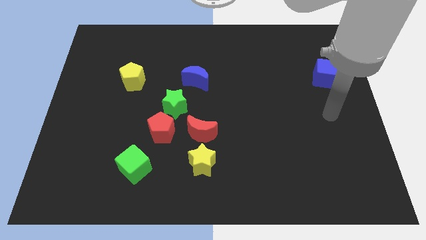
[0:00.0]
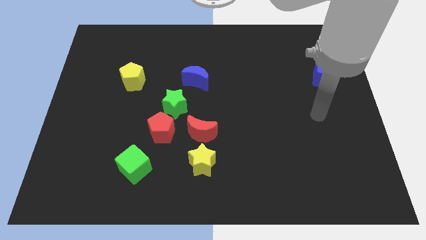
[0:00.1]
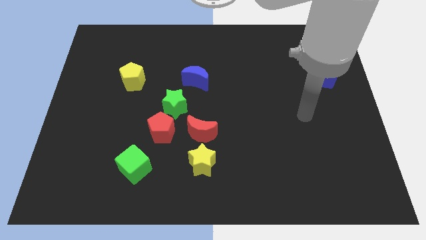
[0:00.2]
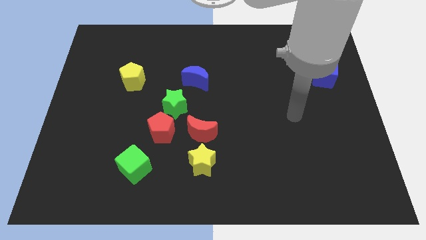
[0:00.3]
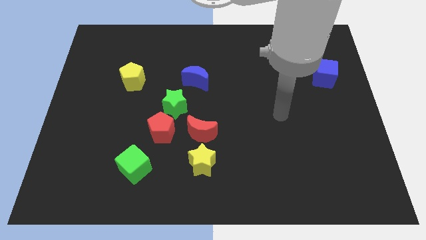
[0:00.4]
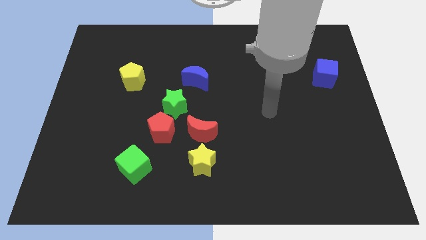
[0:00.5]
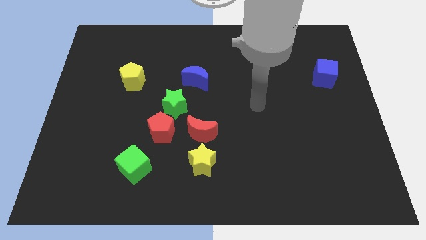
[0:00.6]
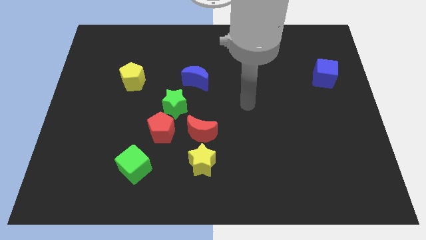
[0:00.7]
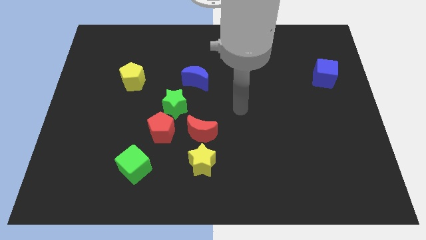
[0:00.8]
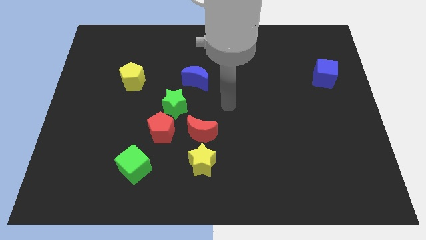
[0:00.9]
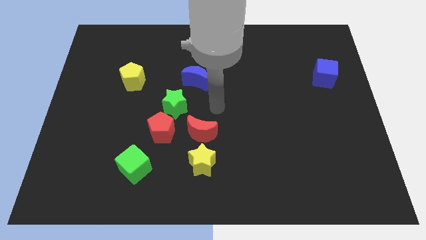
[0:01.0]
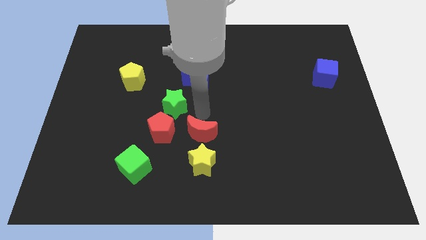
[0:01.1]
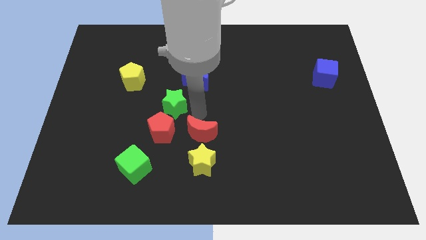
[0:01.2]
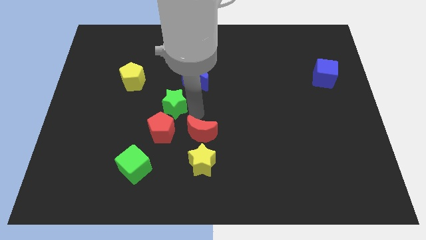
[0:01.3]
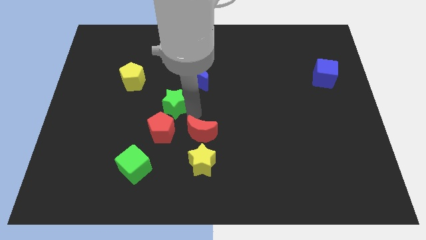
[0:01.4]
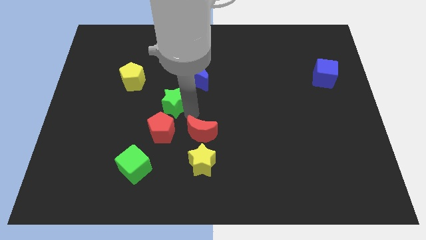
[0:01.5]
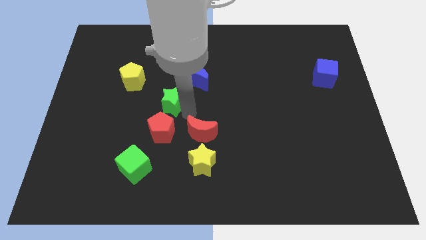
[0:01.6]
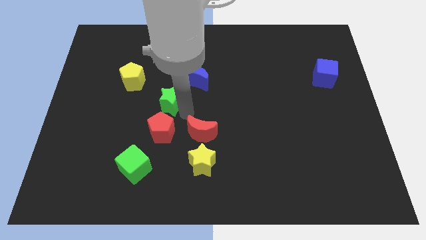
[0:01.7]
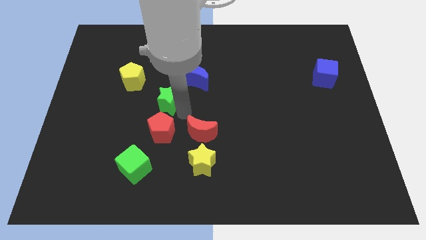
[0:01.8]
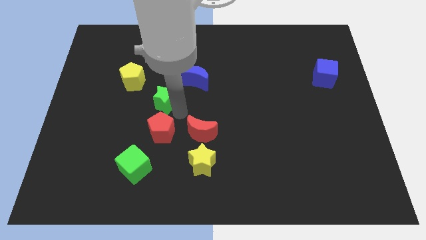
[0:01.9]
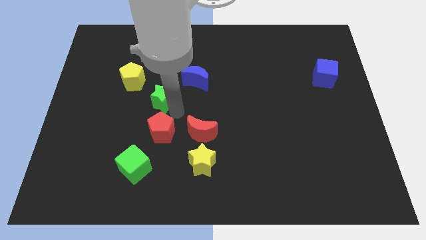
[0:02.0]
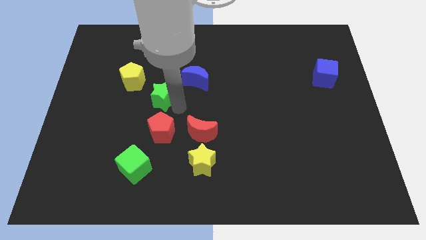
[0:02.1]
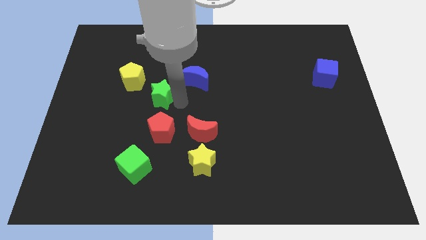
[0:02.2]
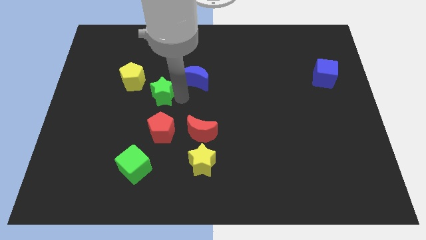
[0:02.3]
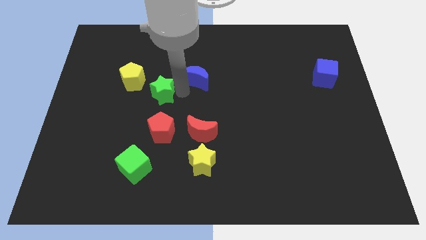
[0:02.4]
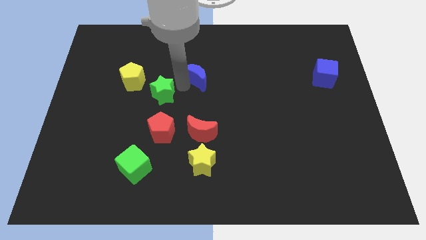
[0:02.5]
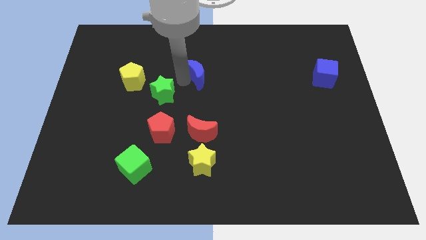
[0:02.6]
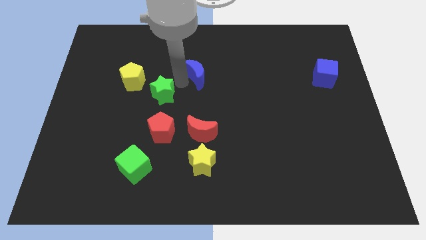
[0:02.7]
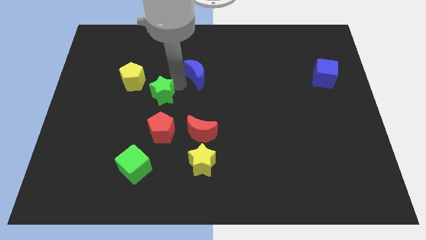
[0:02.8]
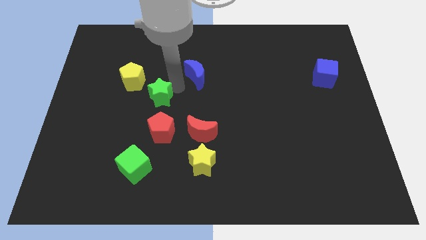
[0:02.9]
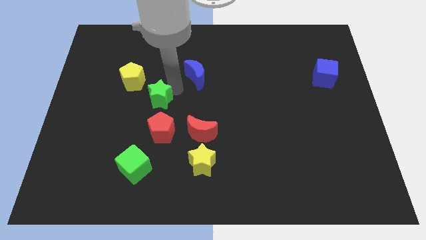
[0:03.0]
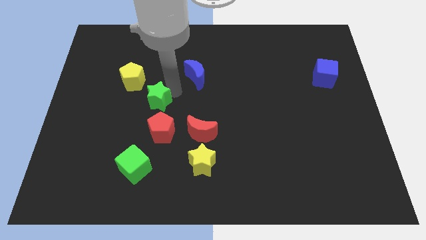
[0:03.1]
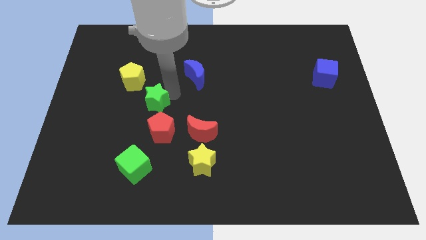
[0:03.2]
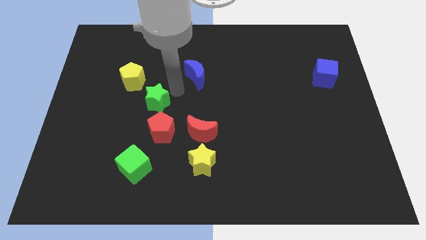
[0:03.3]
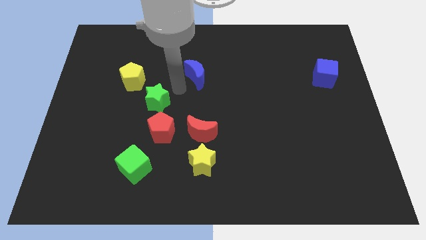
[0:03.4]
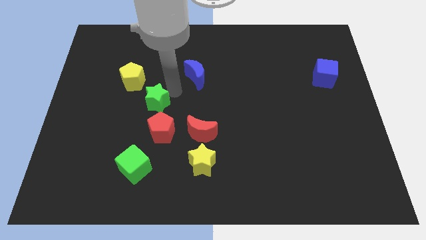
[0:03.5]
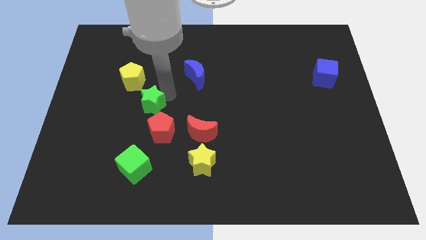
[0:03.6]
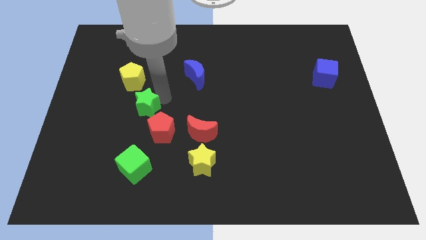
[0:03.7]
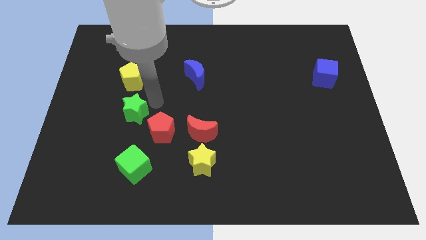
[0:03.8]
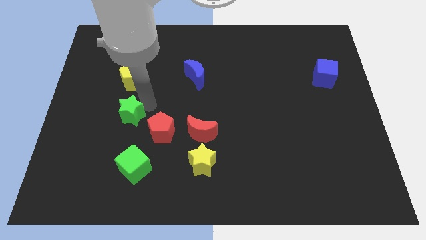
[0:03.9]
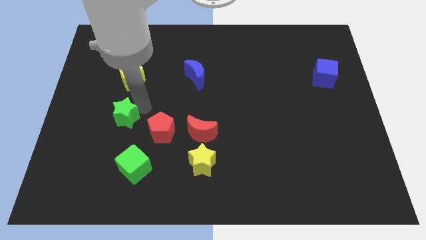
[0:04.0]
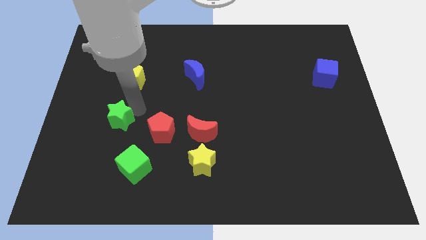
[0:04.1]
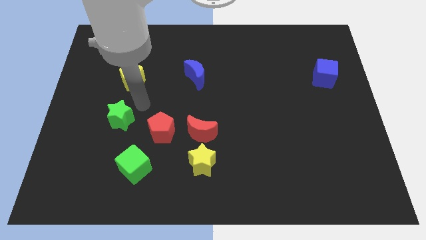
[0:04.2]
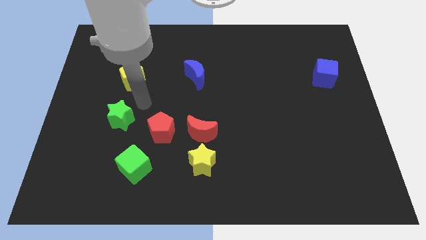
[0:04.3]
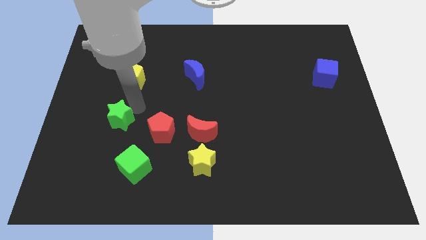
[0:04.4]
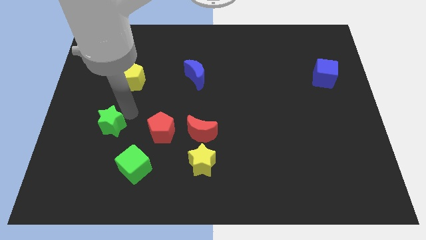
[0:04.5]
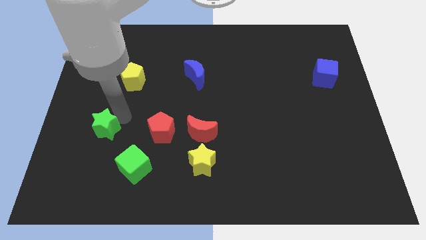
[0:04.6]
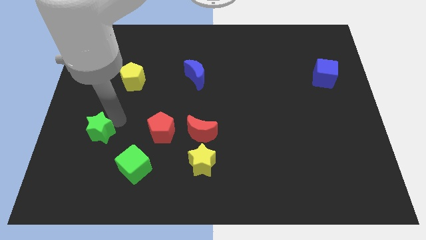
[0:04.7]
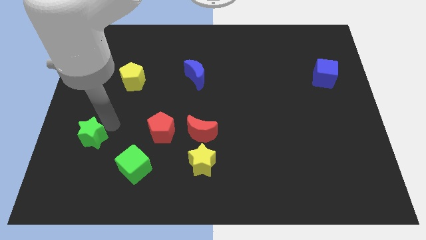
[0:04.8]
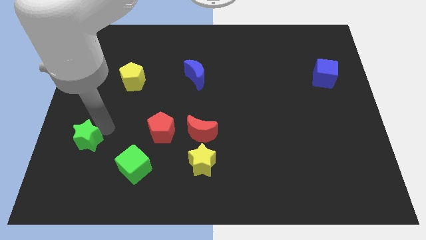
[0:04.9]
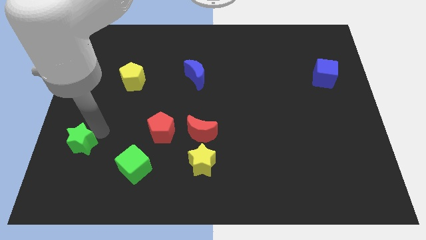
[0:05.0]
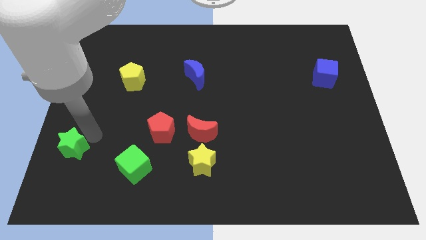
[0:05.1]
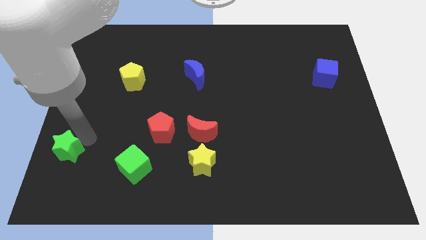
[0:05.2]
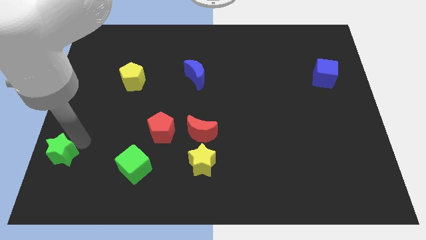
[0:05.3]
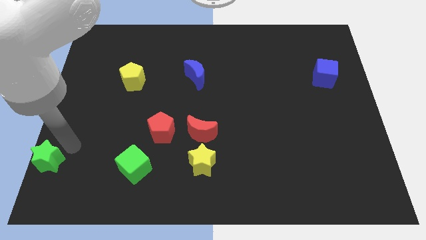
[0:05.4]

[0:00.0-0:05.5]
slide the green star to the lower left corner

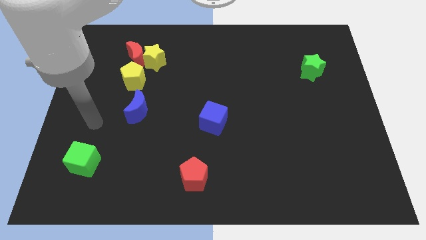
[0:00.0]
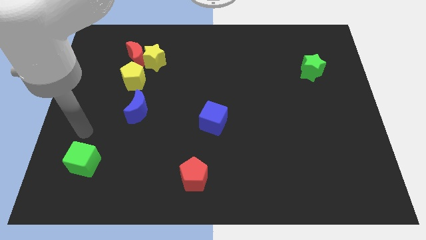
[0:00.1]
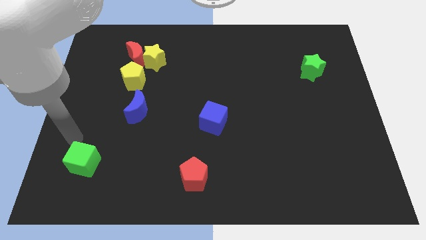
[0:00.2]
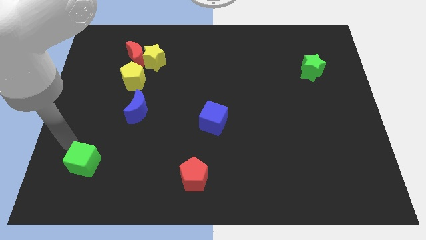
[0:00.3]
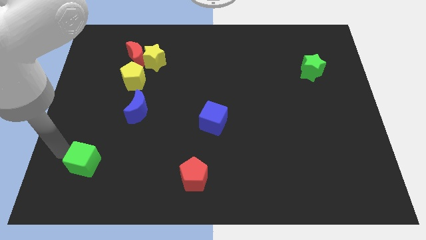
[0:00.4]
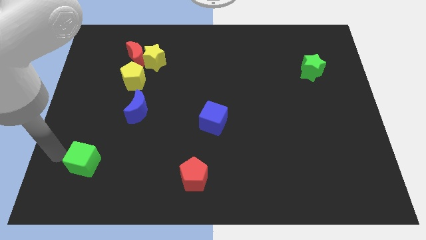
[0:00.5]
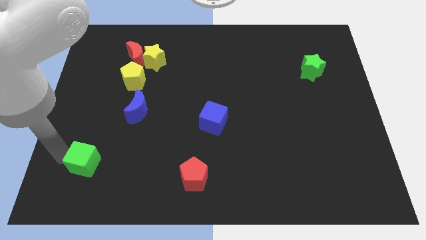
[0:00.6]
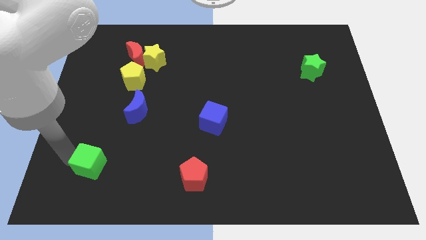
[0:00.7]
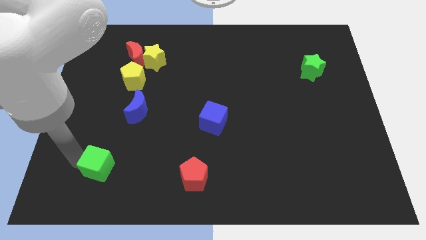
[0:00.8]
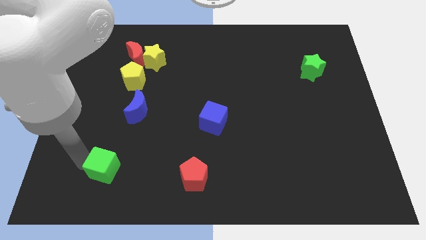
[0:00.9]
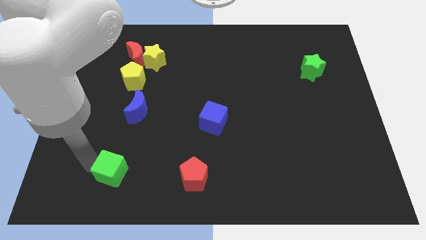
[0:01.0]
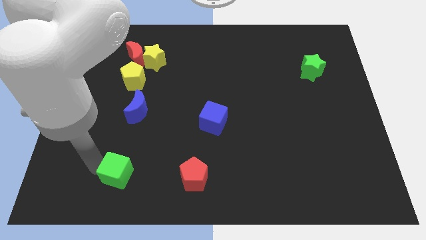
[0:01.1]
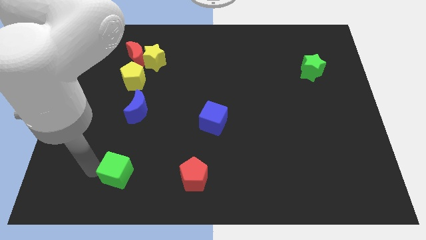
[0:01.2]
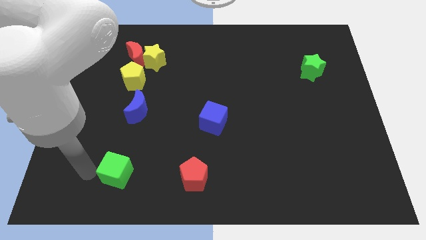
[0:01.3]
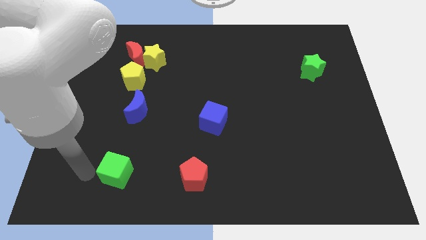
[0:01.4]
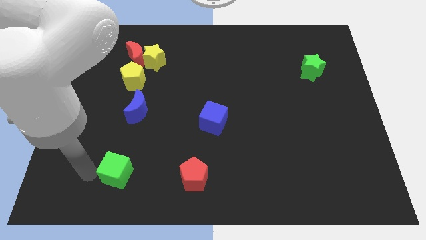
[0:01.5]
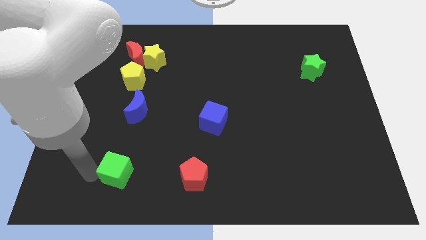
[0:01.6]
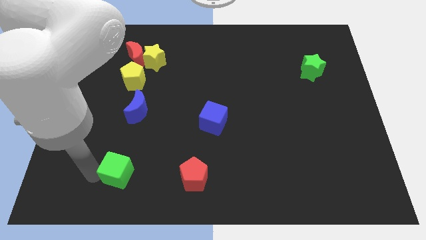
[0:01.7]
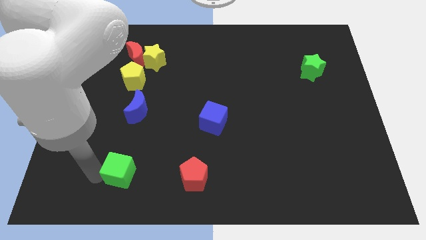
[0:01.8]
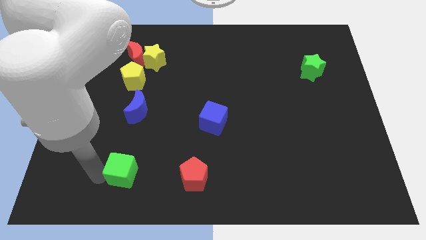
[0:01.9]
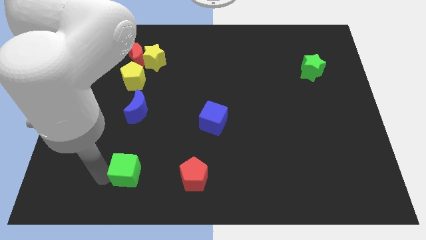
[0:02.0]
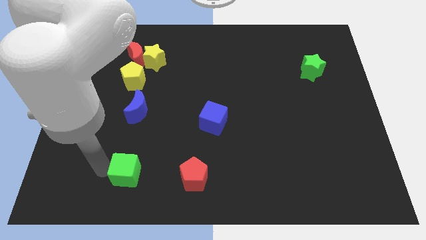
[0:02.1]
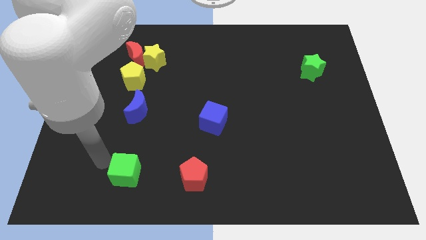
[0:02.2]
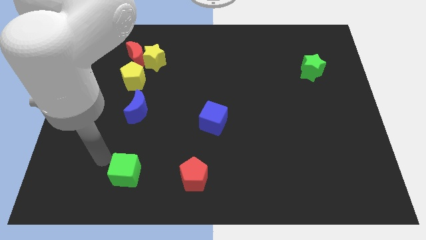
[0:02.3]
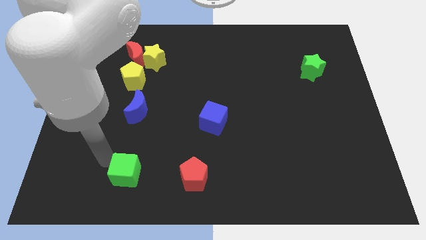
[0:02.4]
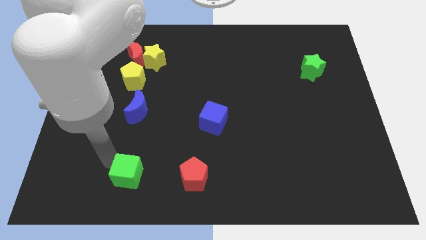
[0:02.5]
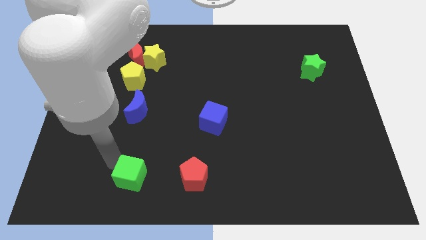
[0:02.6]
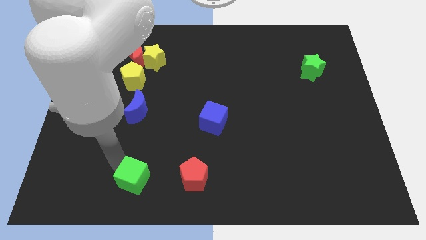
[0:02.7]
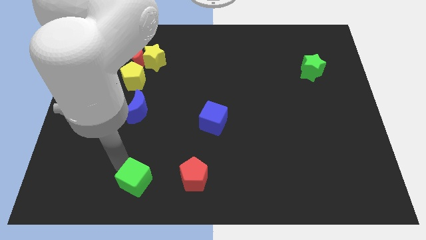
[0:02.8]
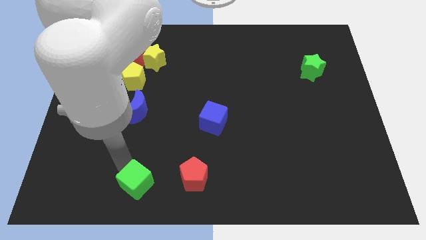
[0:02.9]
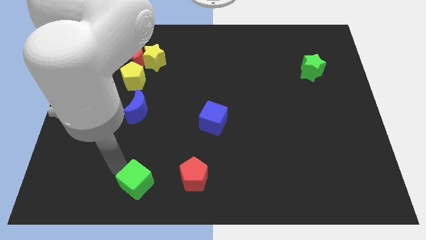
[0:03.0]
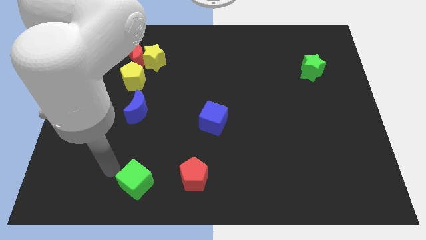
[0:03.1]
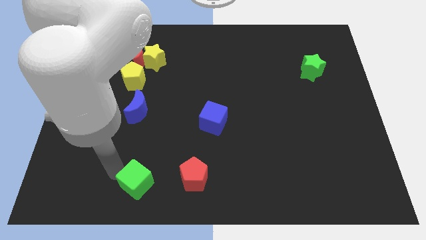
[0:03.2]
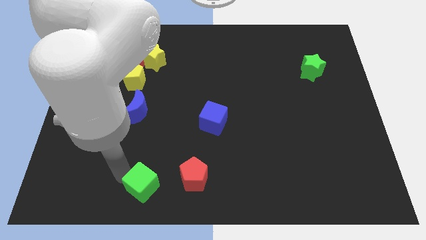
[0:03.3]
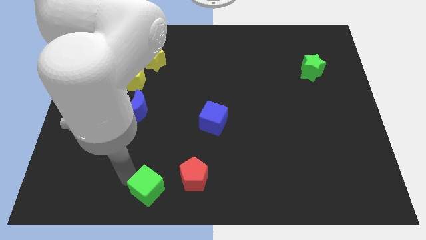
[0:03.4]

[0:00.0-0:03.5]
push the green cube to the bottom
